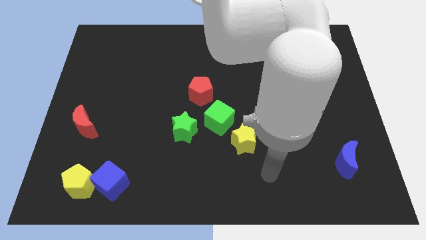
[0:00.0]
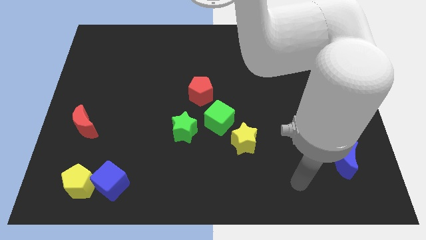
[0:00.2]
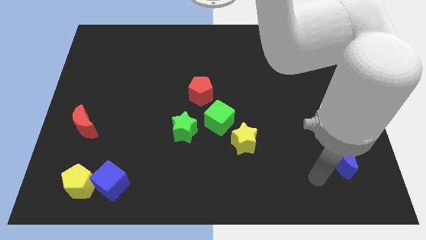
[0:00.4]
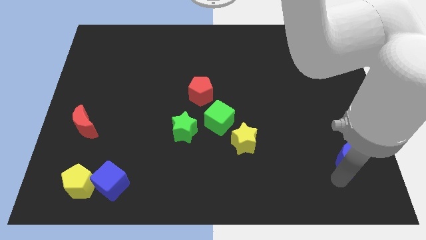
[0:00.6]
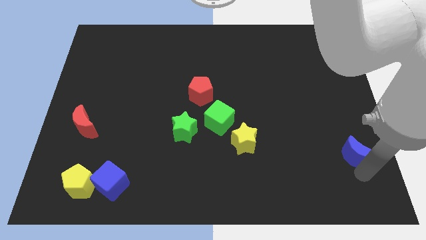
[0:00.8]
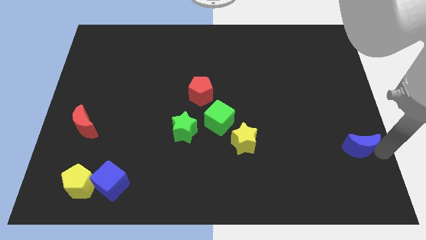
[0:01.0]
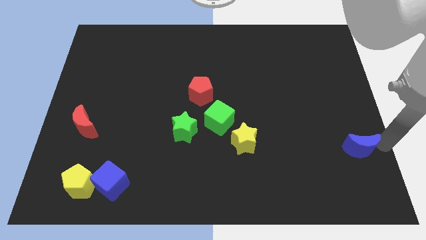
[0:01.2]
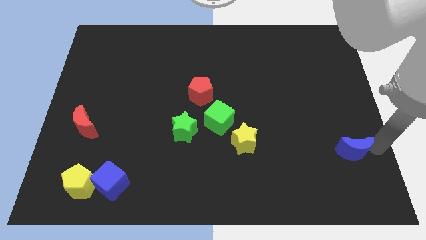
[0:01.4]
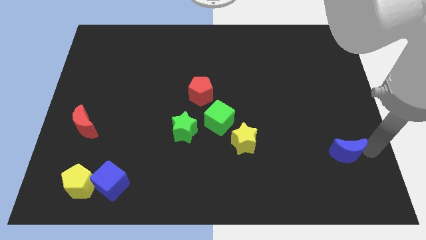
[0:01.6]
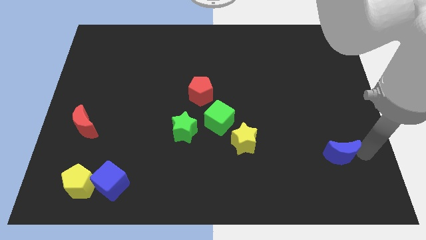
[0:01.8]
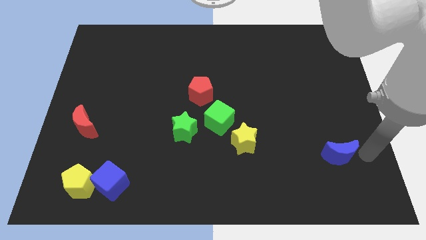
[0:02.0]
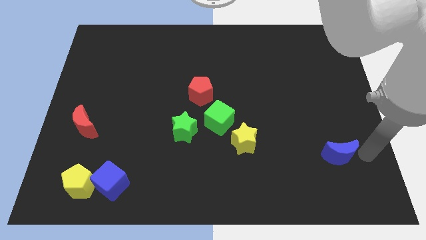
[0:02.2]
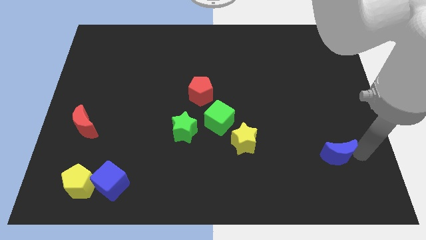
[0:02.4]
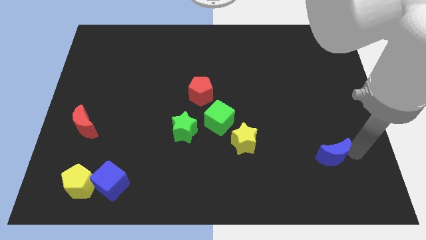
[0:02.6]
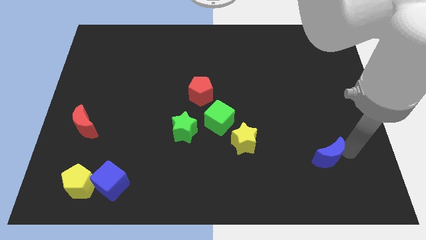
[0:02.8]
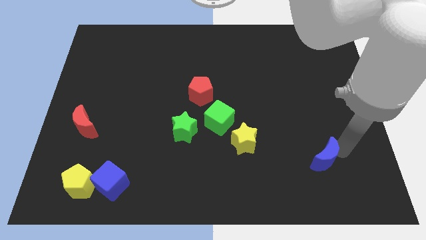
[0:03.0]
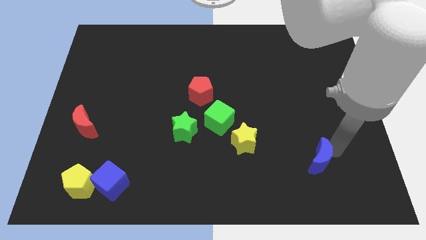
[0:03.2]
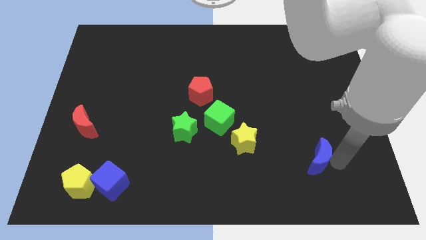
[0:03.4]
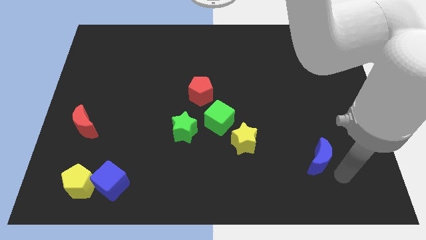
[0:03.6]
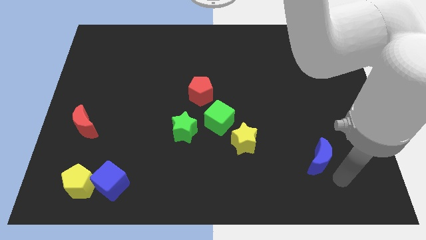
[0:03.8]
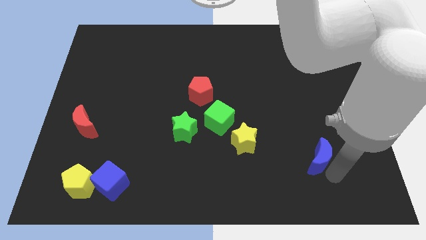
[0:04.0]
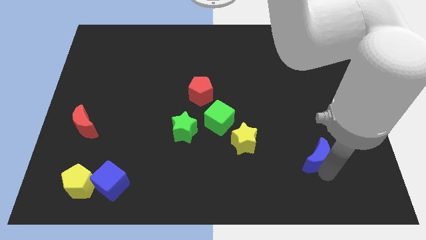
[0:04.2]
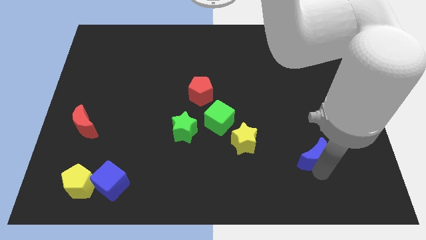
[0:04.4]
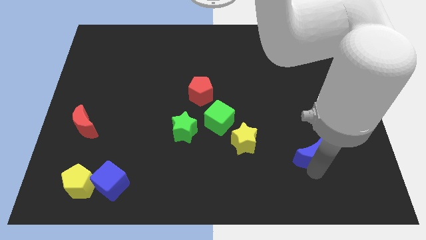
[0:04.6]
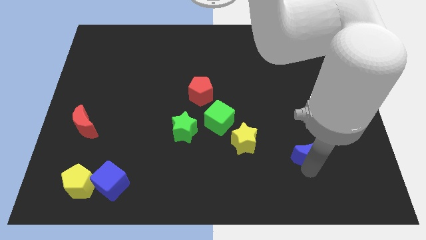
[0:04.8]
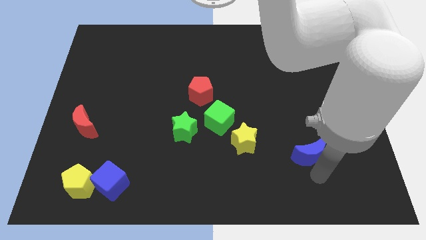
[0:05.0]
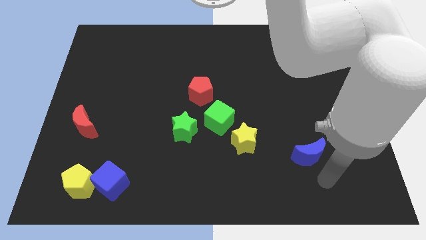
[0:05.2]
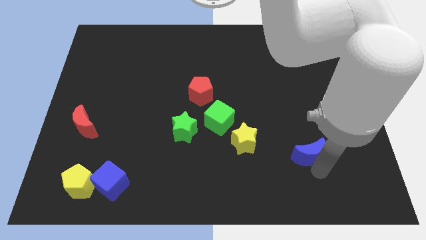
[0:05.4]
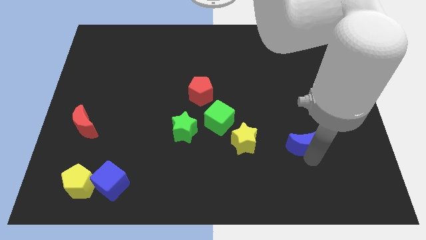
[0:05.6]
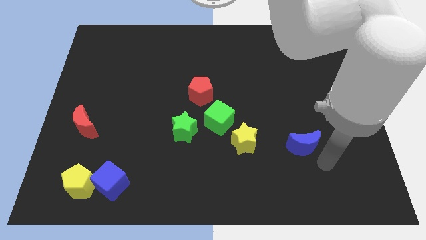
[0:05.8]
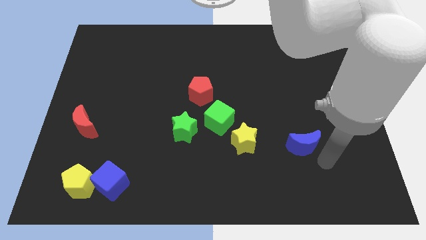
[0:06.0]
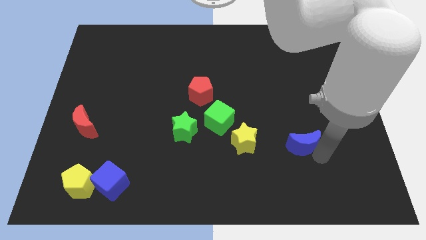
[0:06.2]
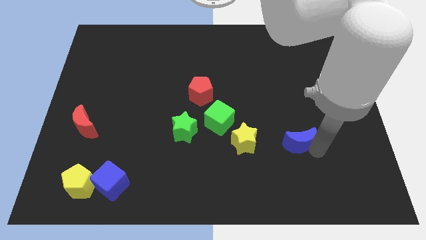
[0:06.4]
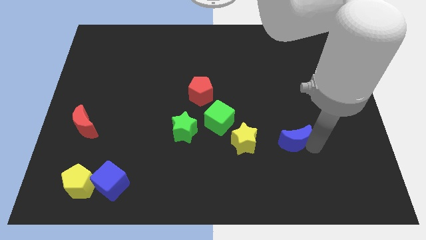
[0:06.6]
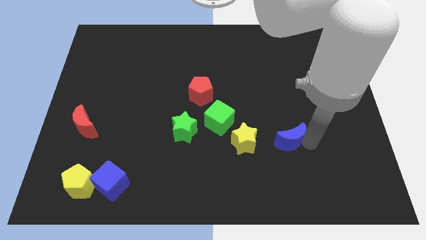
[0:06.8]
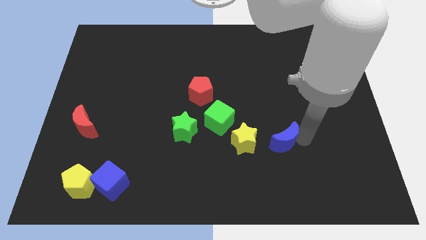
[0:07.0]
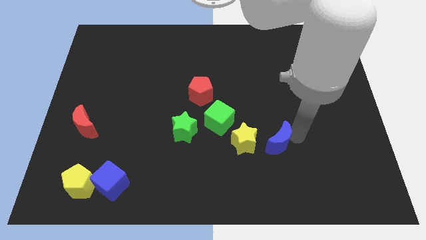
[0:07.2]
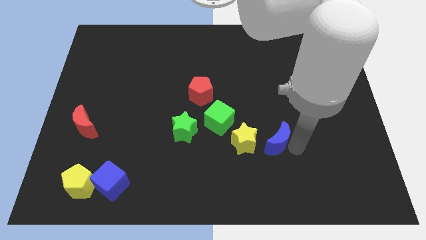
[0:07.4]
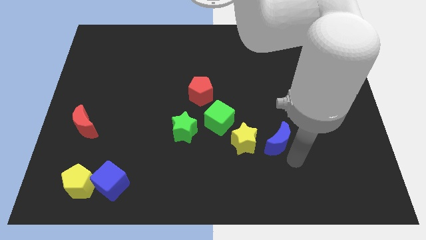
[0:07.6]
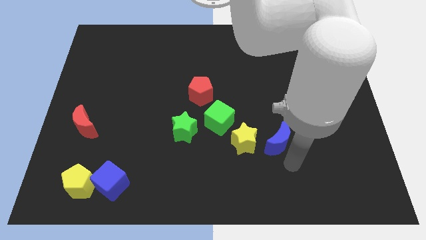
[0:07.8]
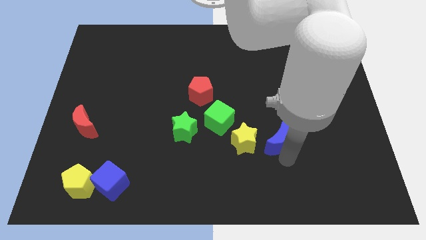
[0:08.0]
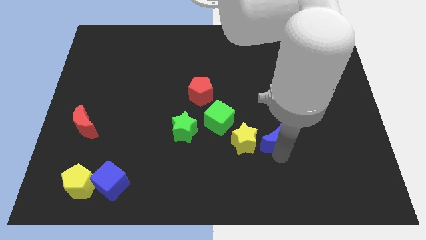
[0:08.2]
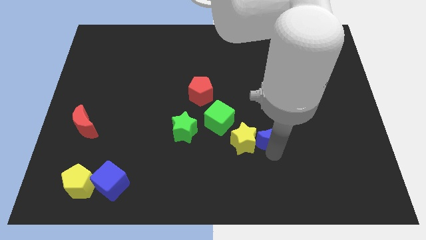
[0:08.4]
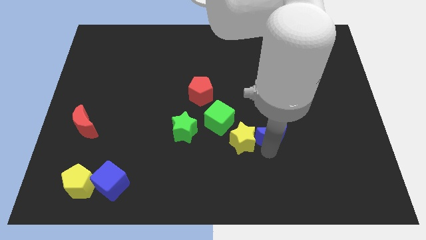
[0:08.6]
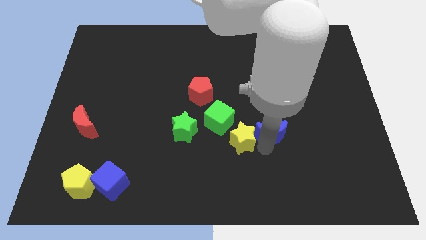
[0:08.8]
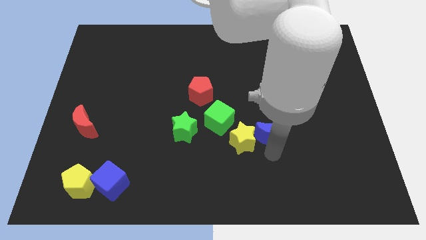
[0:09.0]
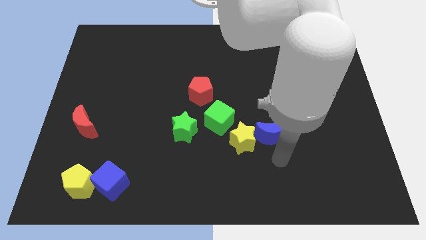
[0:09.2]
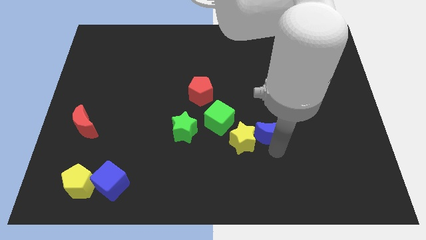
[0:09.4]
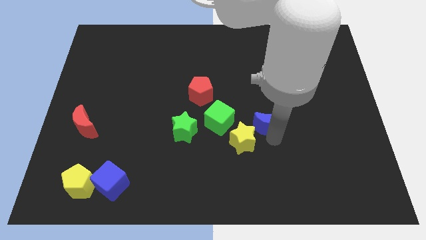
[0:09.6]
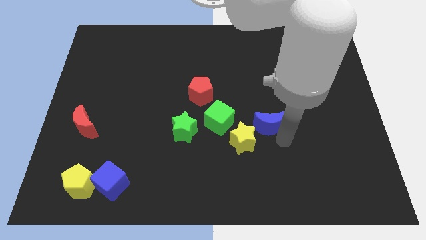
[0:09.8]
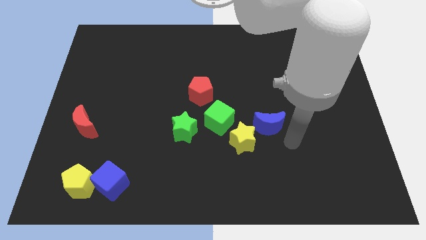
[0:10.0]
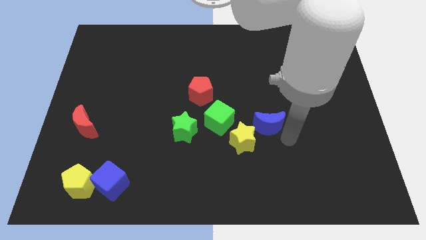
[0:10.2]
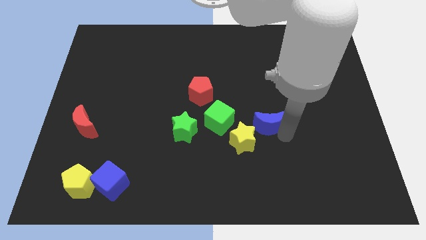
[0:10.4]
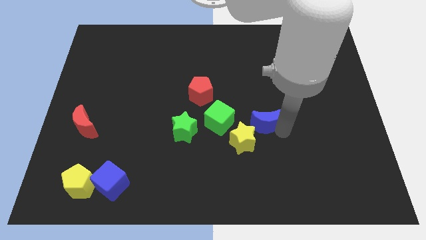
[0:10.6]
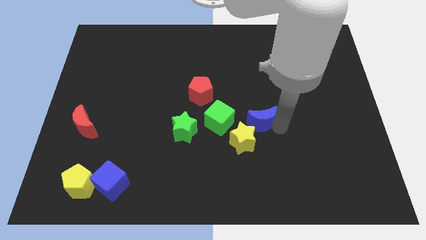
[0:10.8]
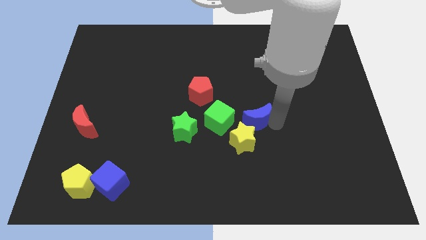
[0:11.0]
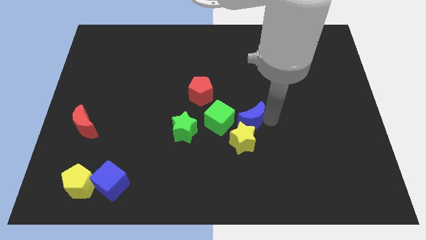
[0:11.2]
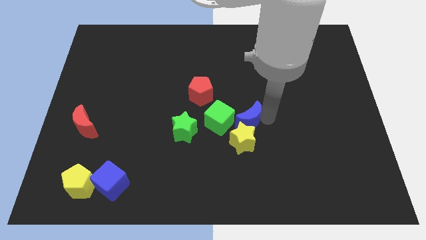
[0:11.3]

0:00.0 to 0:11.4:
put the blue moon to the top right of the green cube

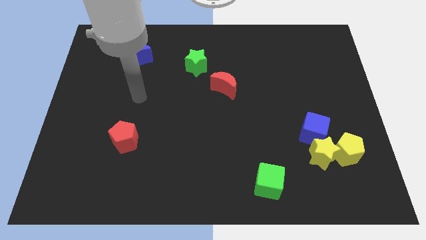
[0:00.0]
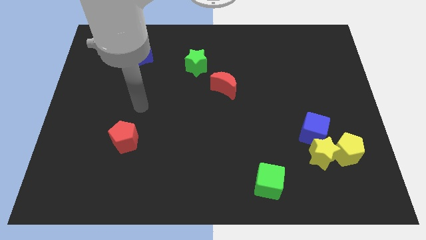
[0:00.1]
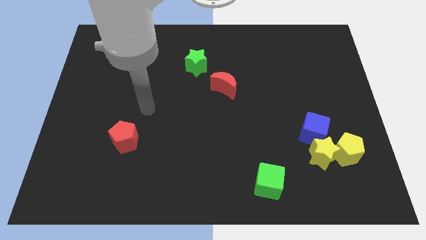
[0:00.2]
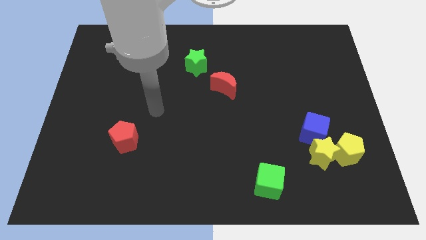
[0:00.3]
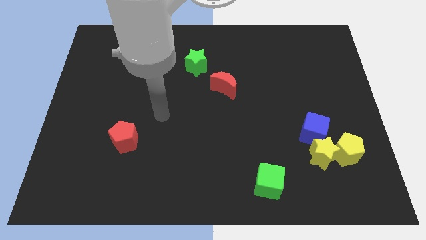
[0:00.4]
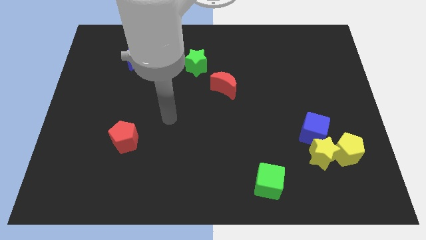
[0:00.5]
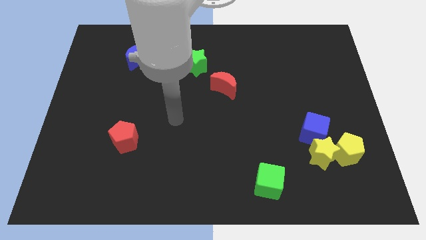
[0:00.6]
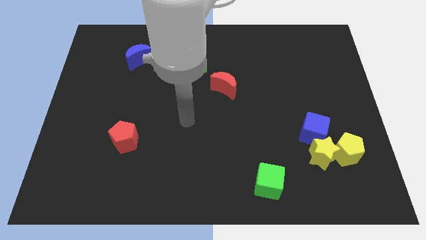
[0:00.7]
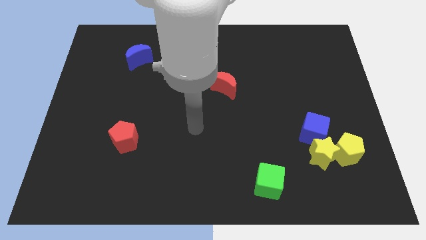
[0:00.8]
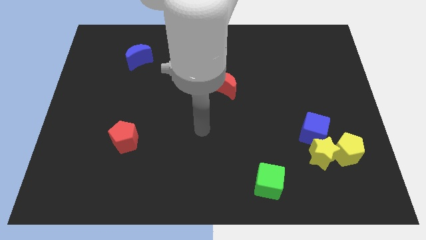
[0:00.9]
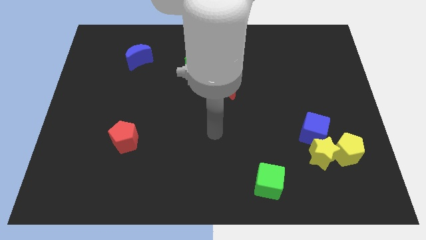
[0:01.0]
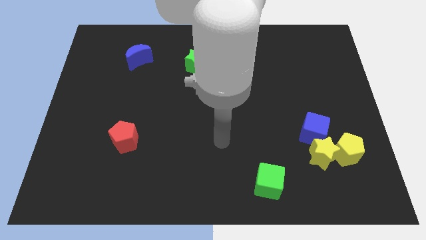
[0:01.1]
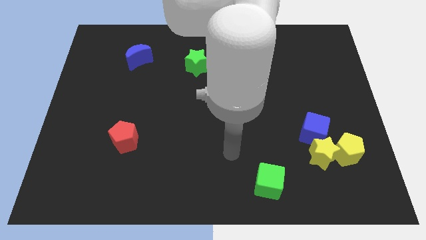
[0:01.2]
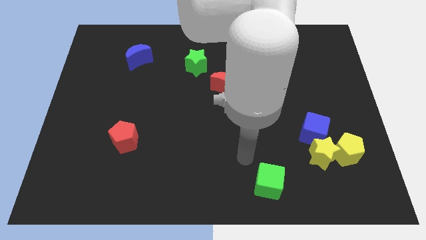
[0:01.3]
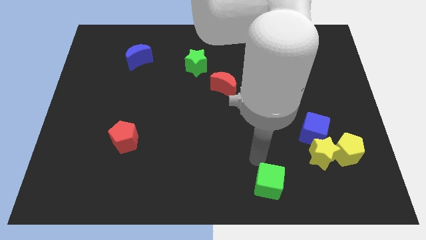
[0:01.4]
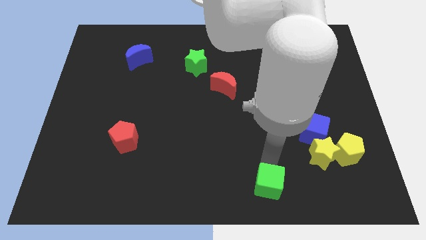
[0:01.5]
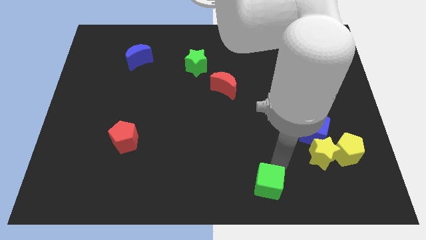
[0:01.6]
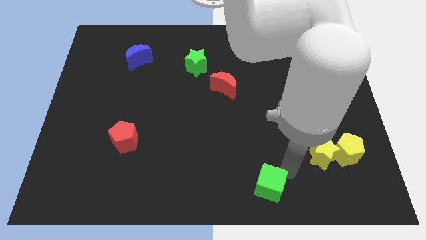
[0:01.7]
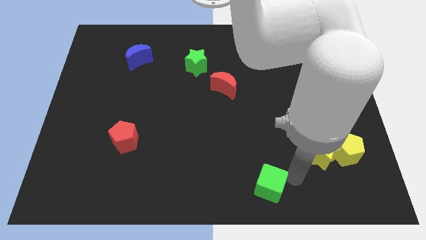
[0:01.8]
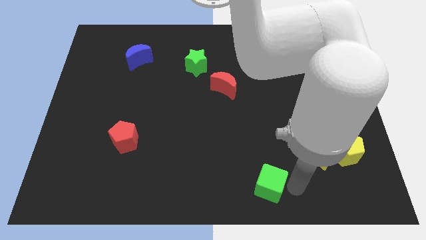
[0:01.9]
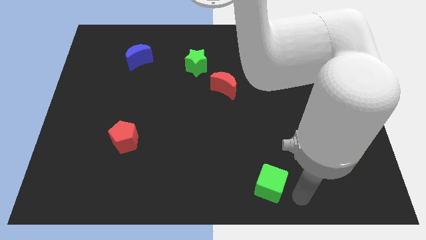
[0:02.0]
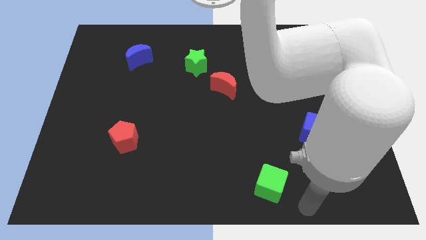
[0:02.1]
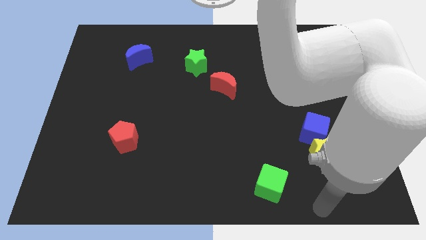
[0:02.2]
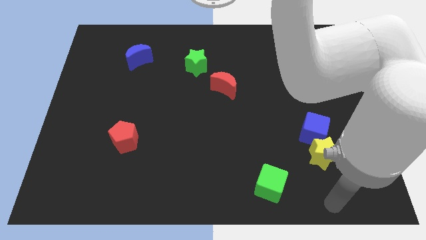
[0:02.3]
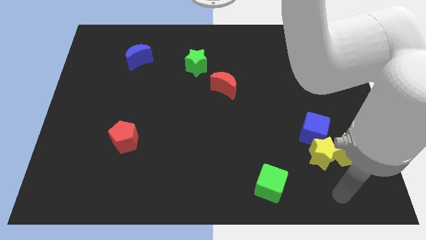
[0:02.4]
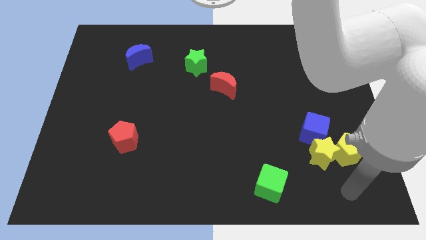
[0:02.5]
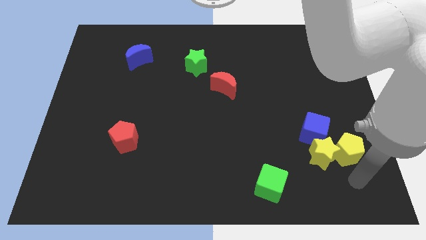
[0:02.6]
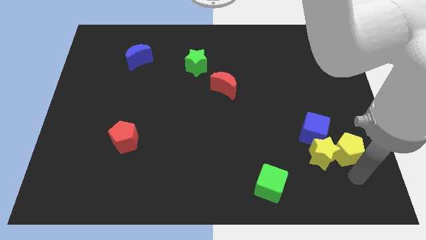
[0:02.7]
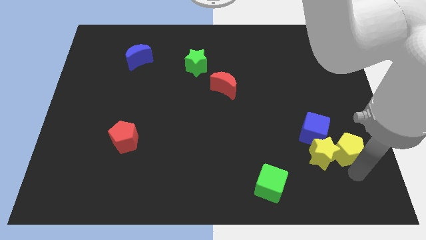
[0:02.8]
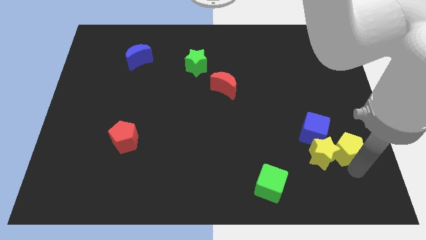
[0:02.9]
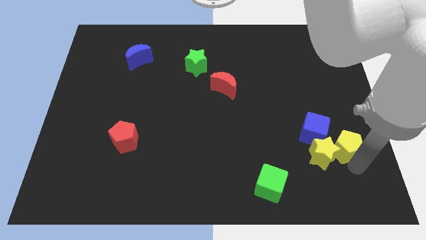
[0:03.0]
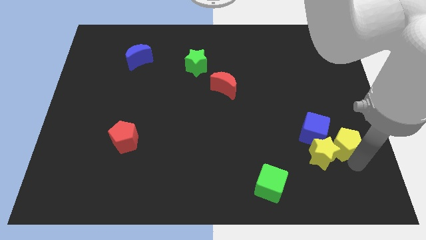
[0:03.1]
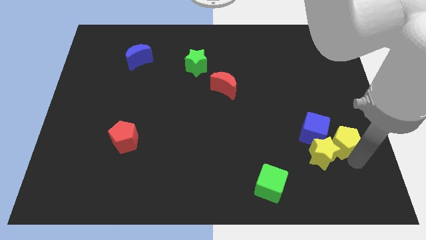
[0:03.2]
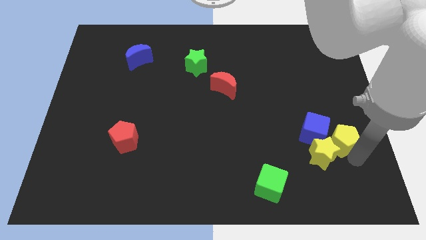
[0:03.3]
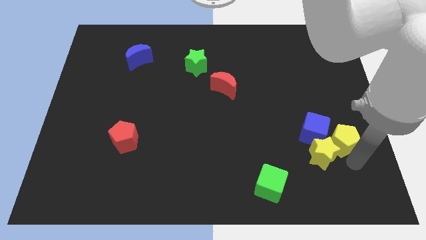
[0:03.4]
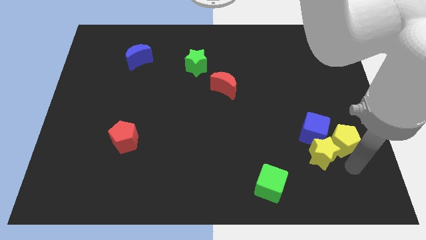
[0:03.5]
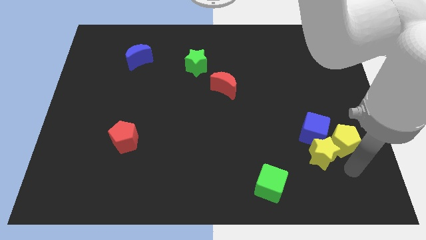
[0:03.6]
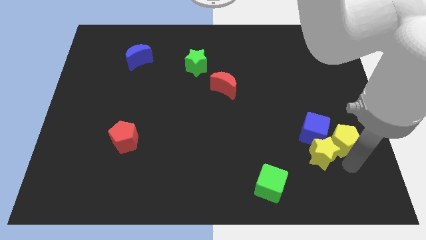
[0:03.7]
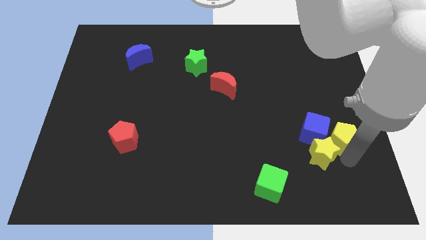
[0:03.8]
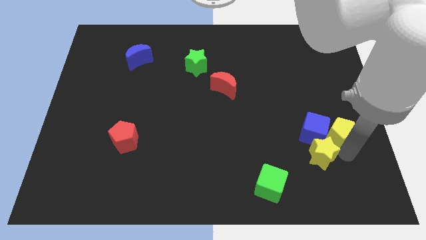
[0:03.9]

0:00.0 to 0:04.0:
move the yellow pentagon to the top right of the blue cube
